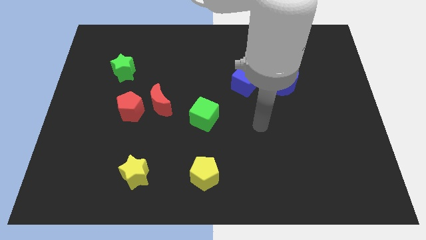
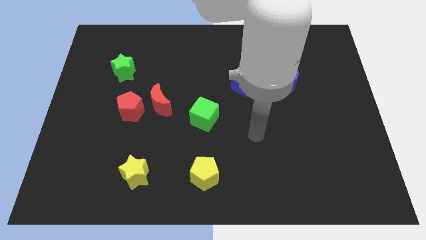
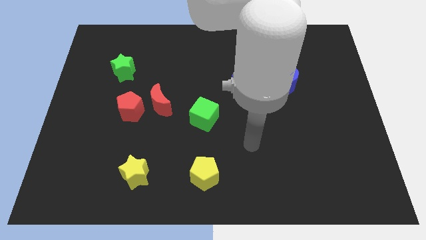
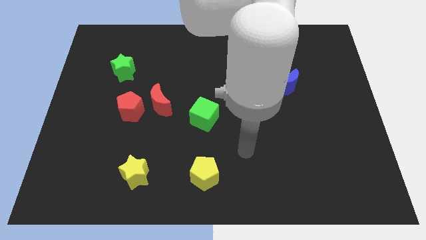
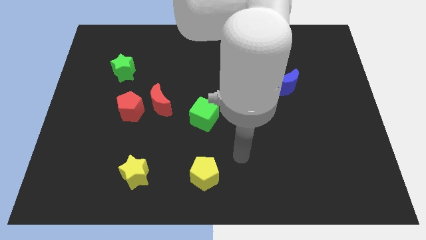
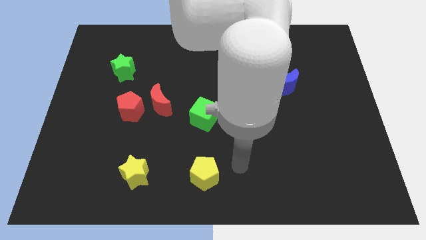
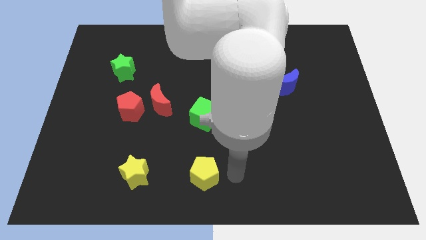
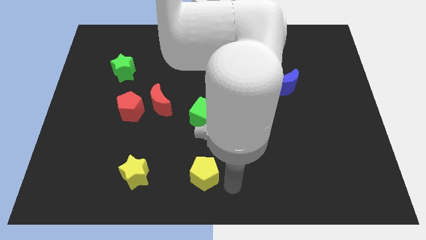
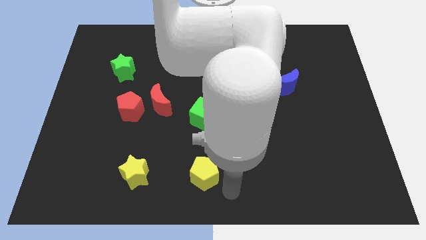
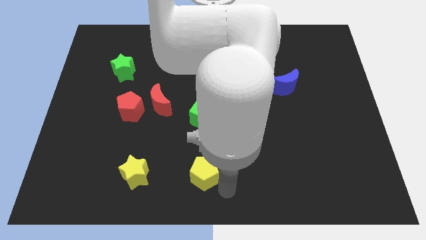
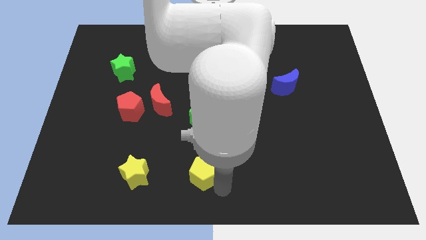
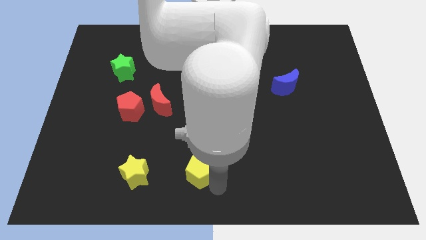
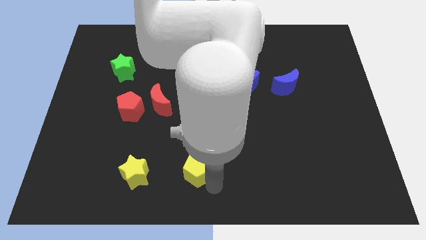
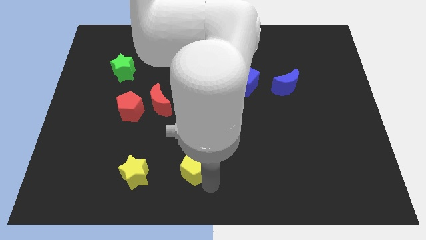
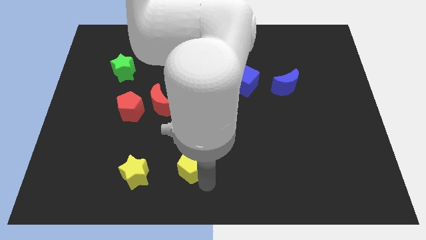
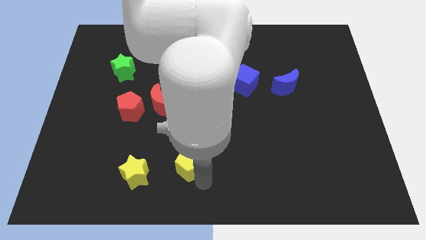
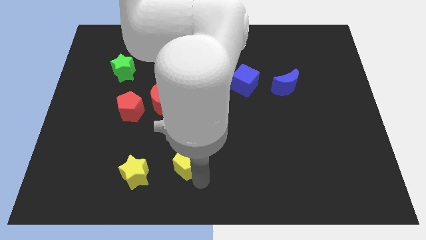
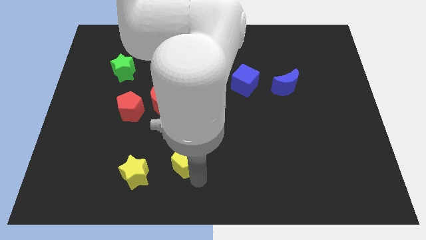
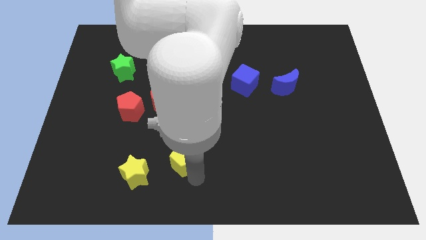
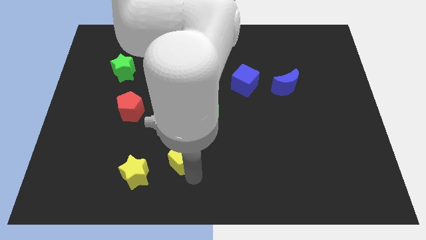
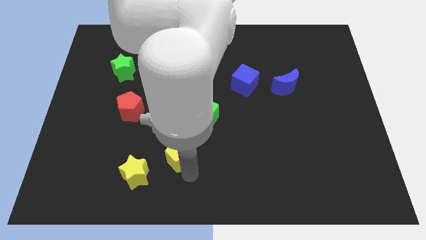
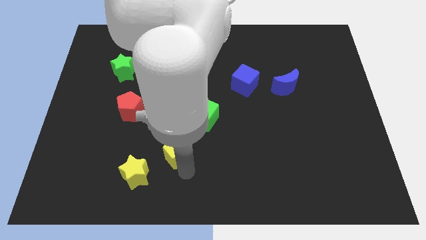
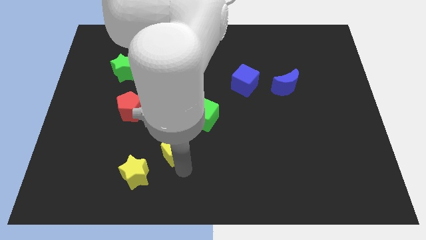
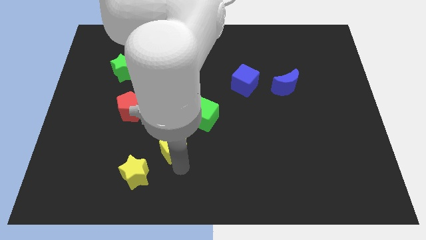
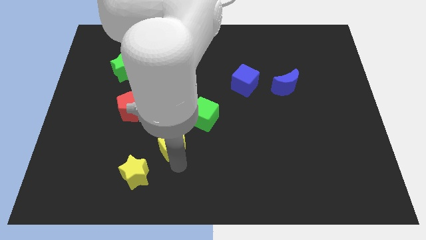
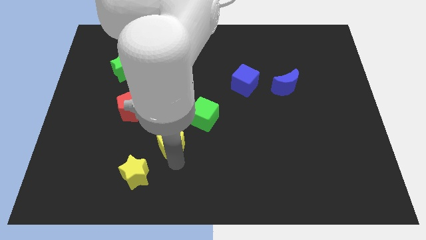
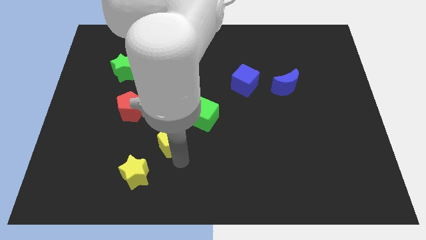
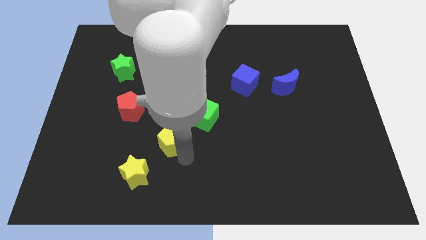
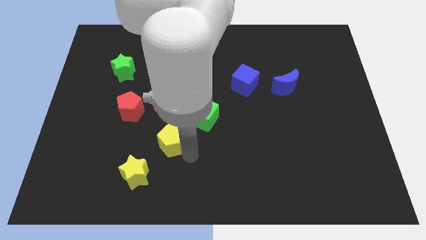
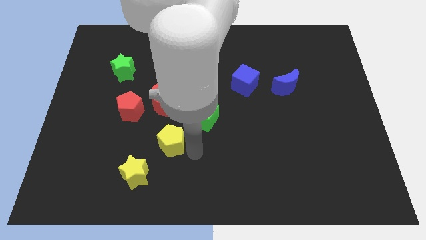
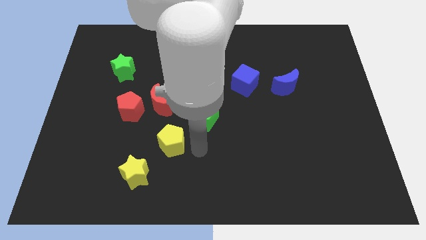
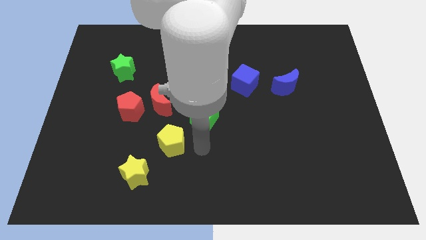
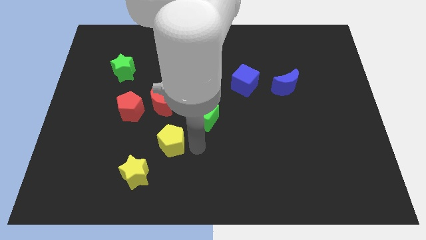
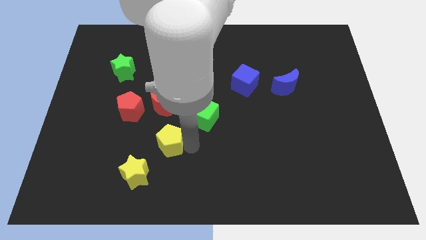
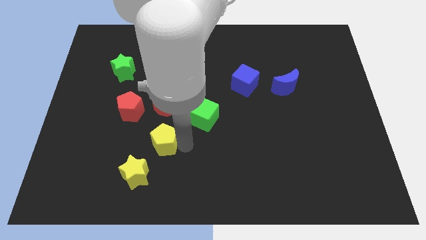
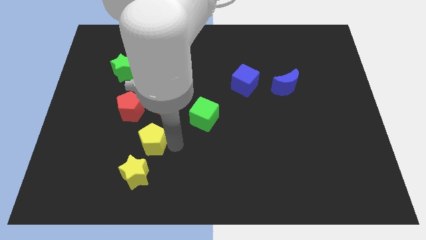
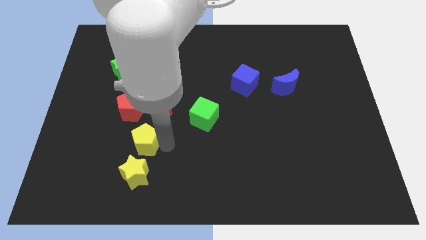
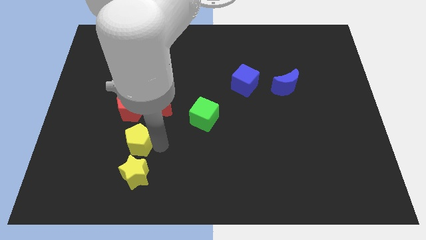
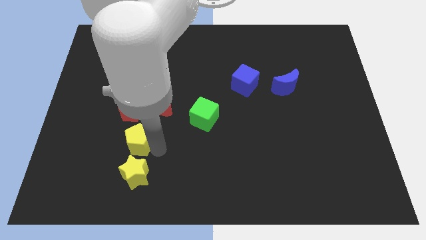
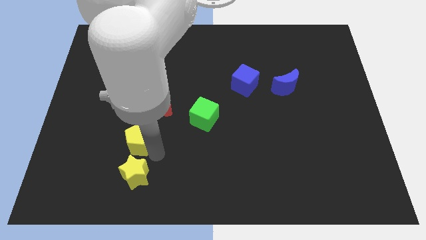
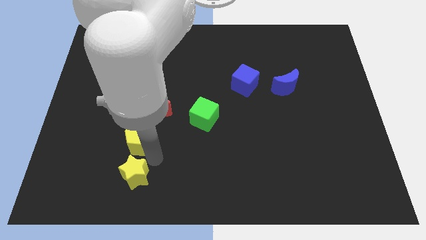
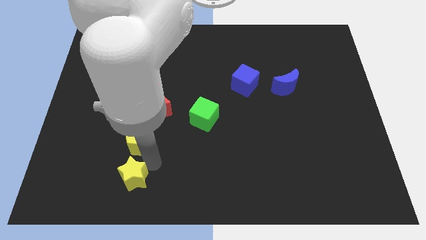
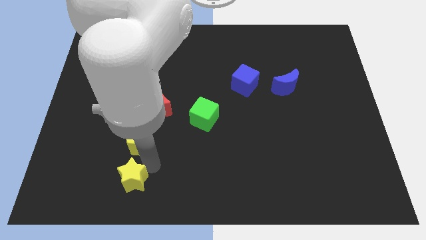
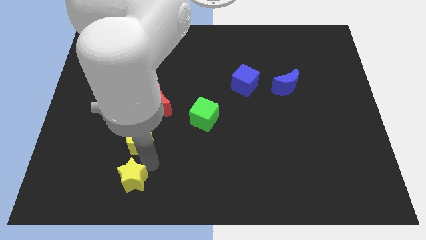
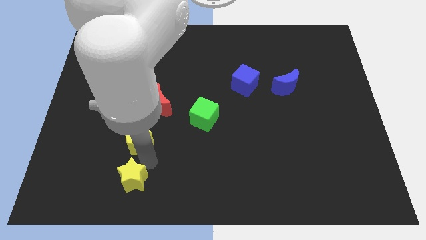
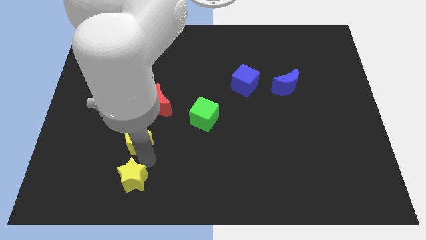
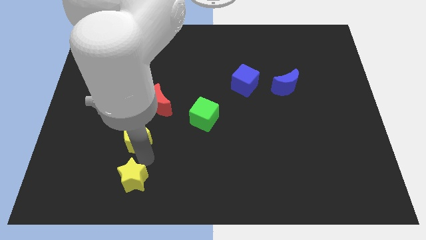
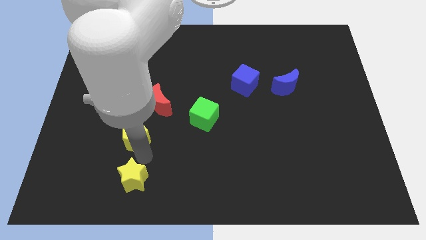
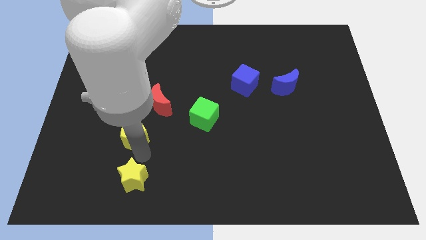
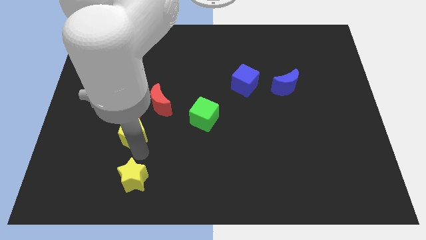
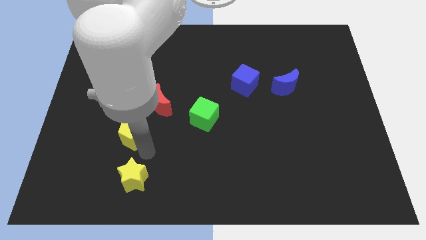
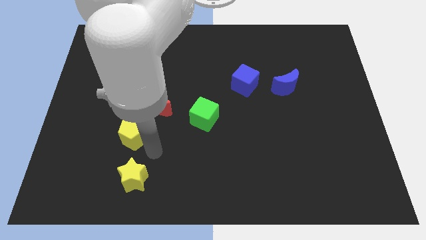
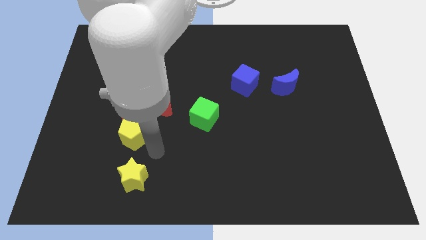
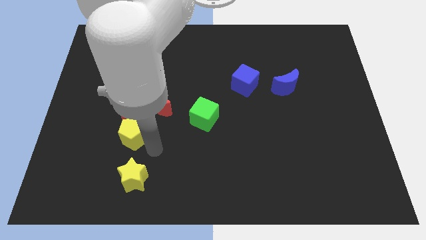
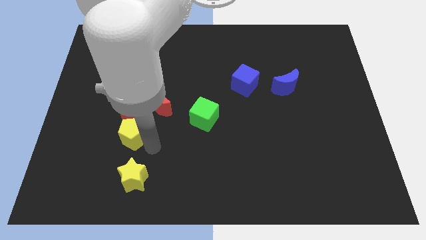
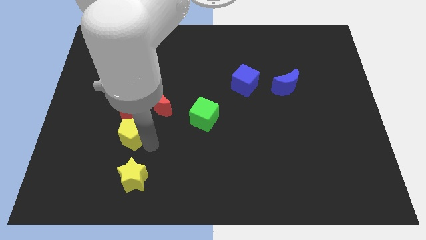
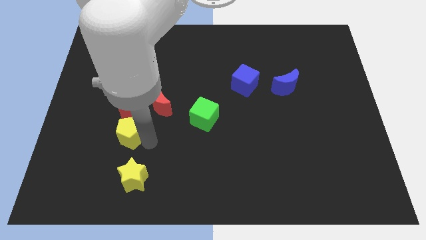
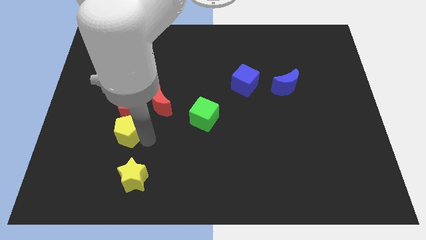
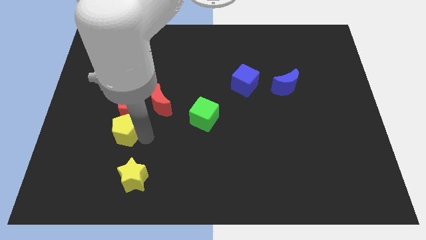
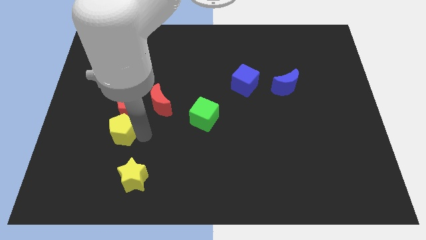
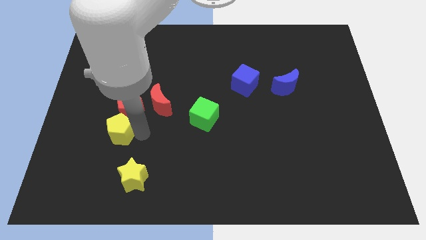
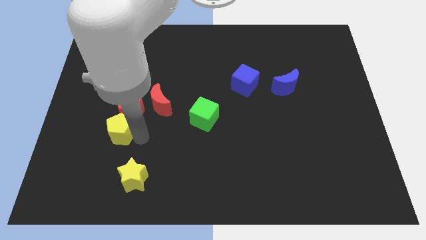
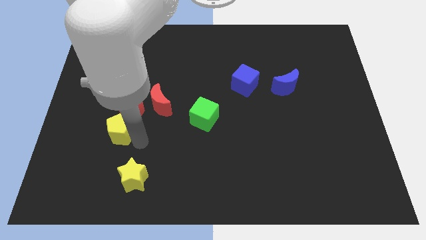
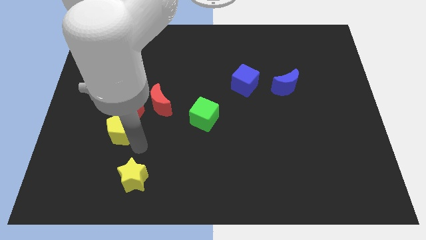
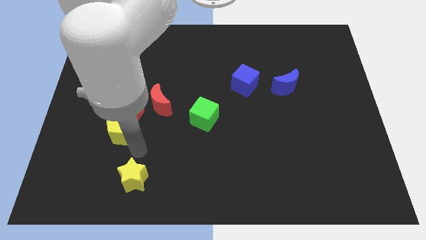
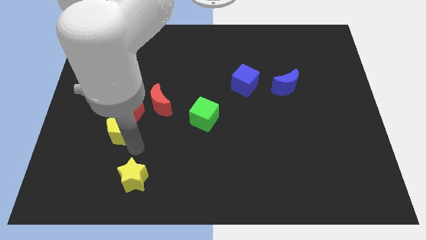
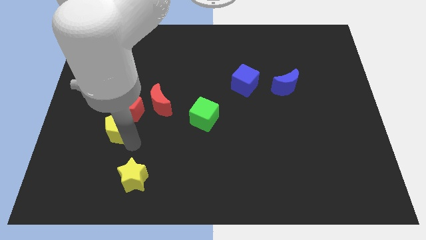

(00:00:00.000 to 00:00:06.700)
push the yellow pentagon diagonally up and to the left

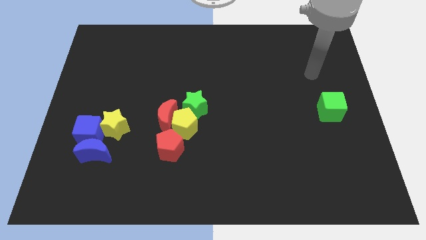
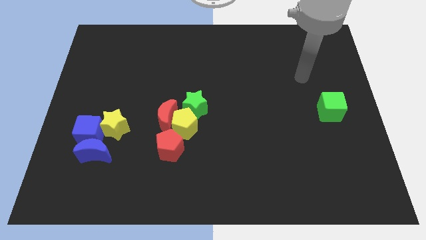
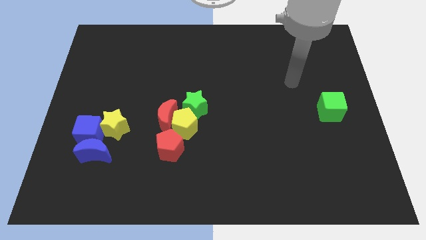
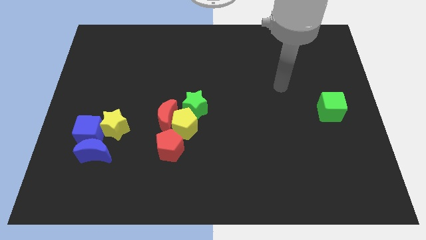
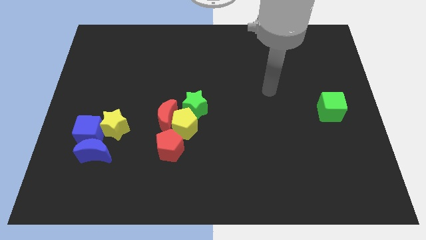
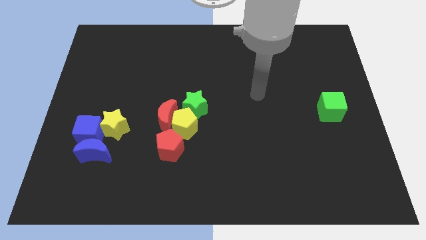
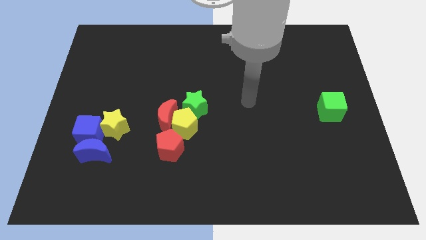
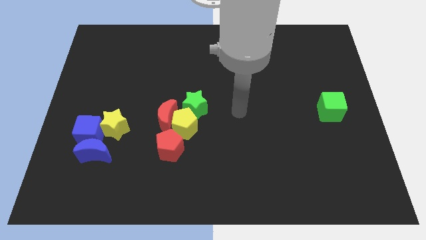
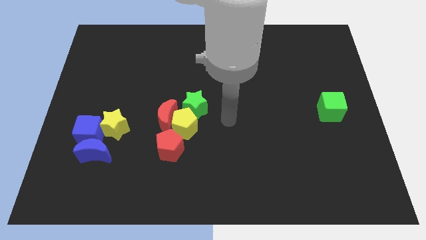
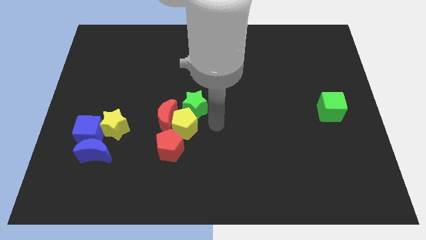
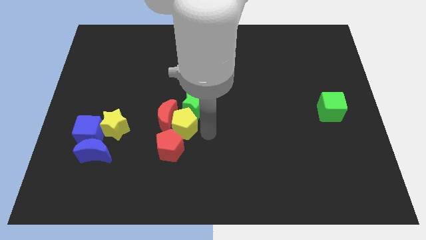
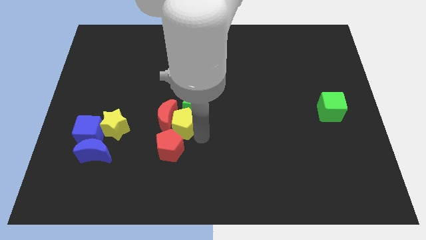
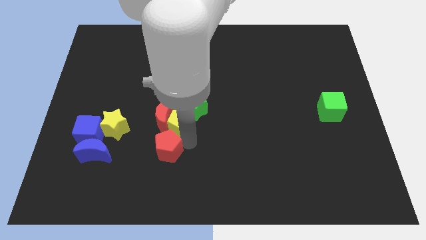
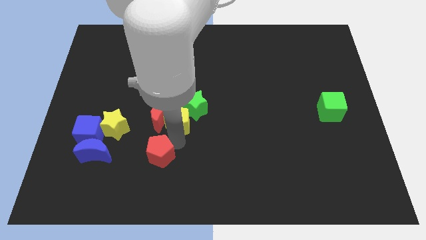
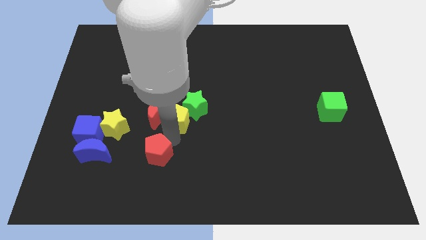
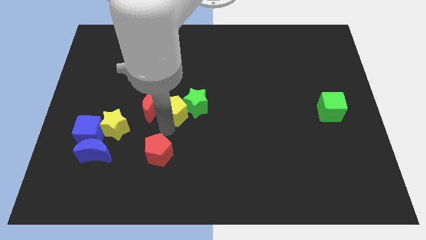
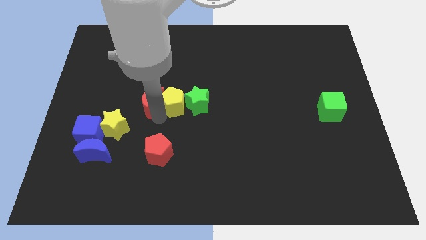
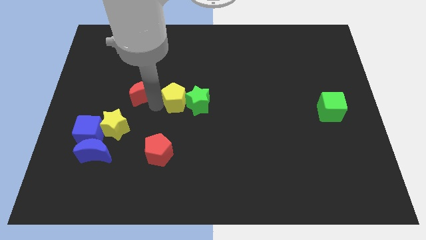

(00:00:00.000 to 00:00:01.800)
slightly slide the yellow pentagon upwards and then left
